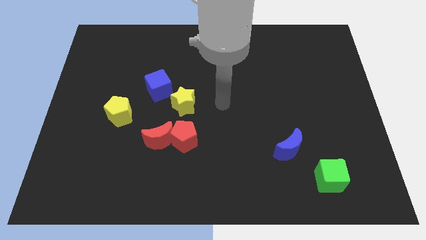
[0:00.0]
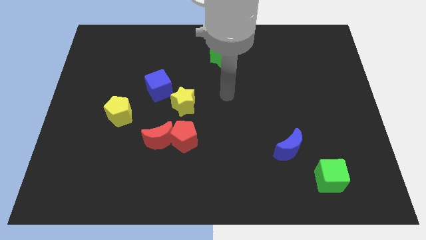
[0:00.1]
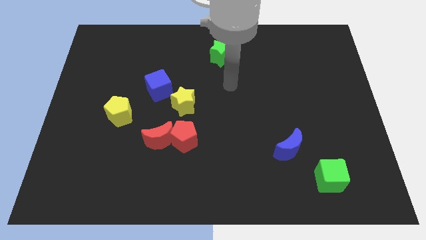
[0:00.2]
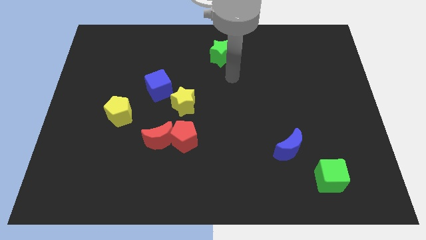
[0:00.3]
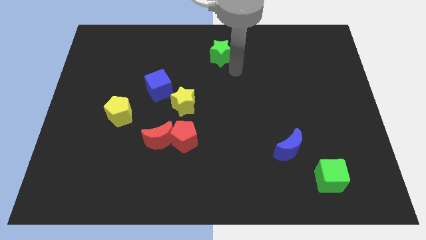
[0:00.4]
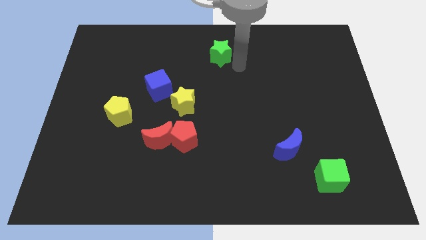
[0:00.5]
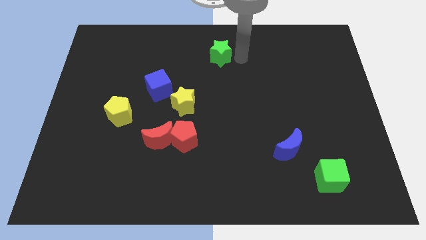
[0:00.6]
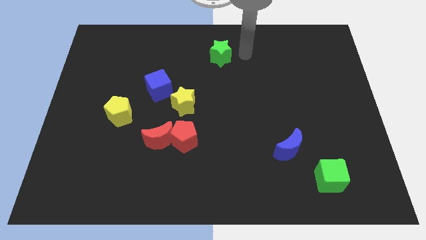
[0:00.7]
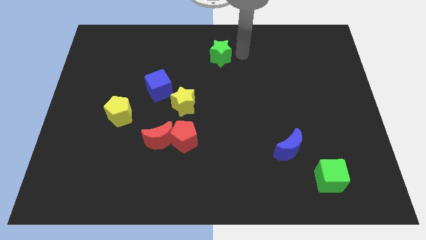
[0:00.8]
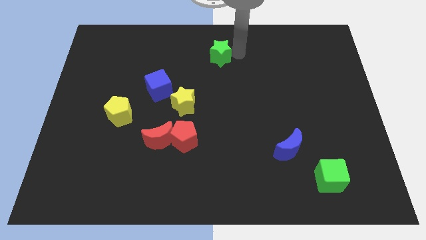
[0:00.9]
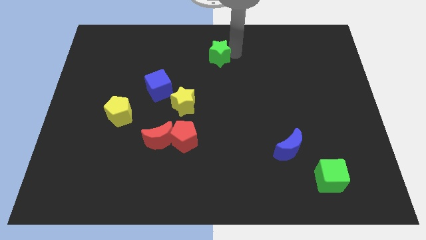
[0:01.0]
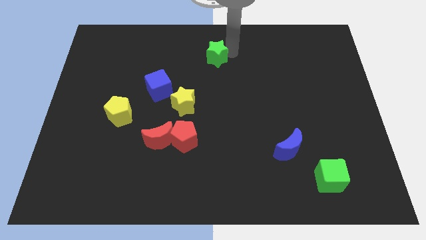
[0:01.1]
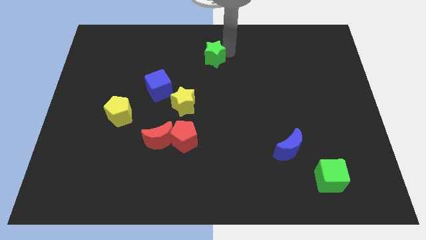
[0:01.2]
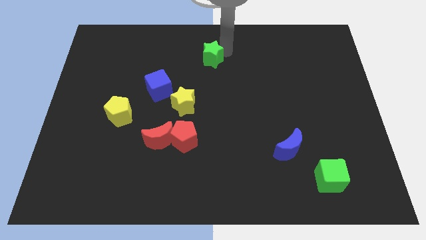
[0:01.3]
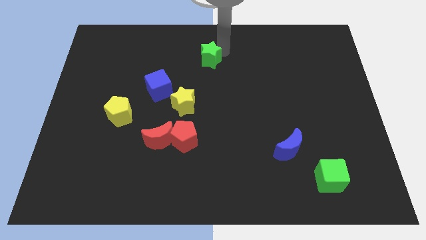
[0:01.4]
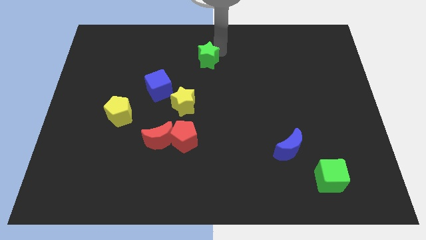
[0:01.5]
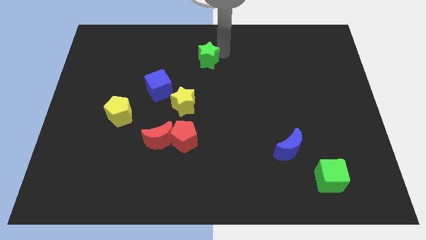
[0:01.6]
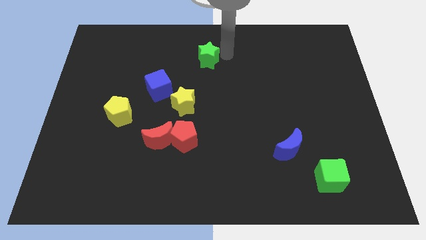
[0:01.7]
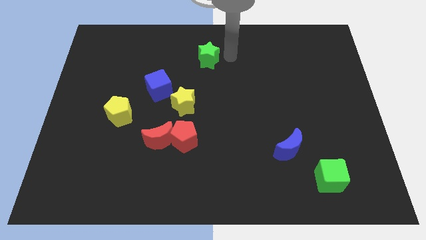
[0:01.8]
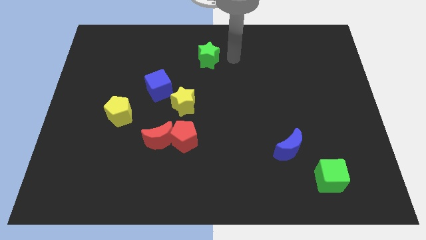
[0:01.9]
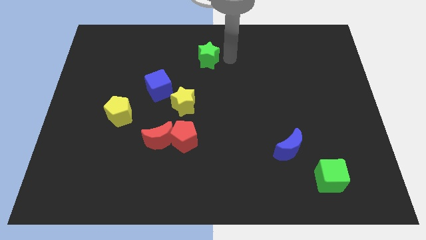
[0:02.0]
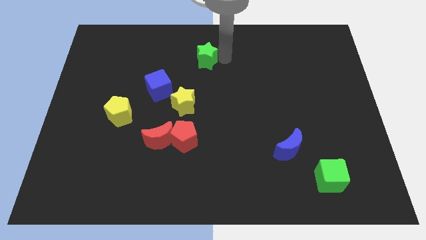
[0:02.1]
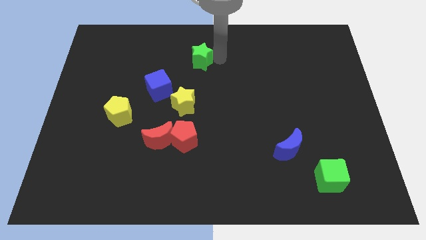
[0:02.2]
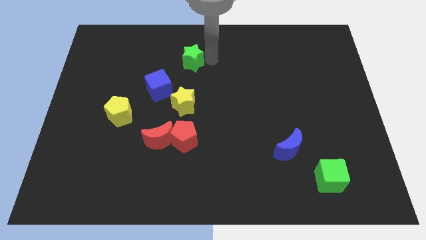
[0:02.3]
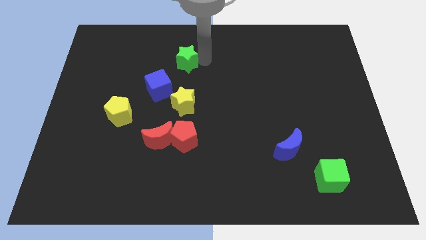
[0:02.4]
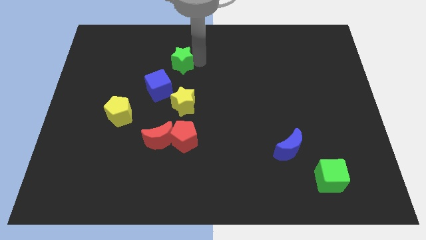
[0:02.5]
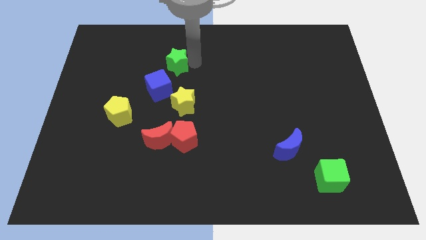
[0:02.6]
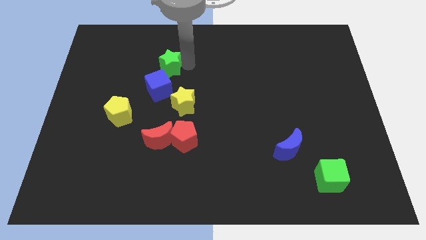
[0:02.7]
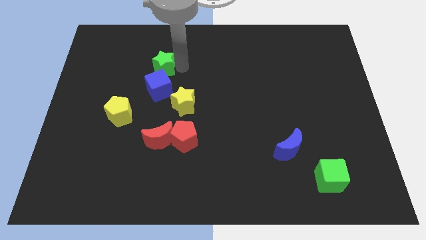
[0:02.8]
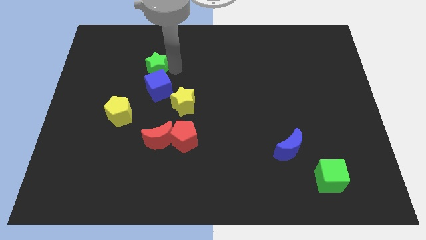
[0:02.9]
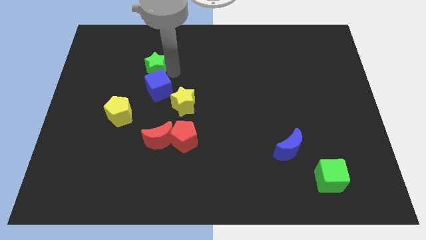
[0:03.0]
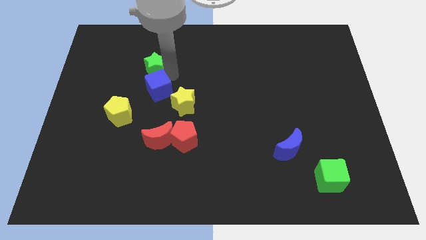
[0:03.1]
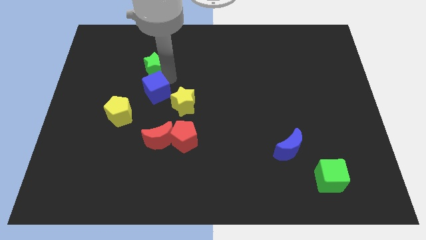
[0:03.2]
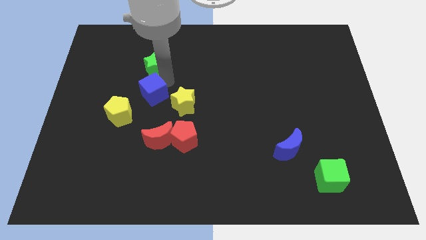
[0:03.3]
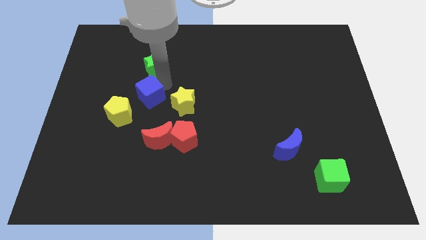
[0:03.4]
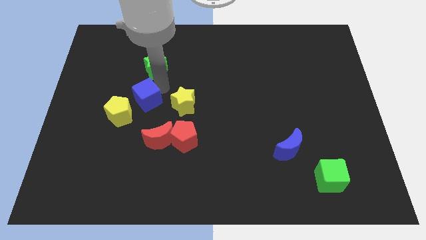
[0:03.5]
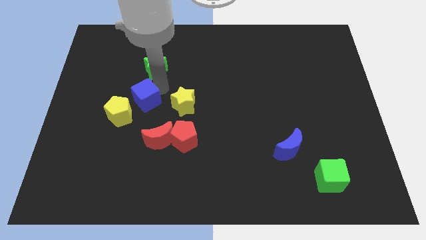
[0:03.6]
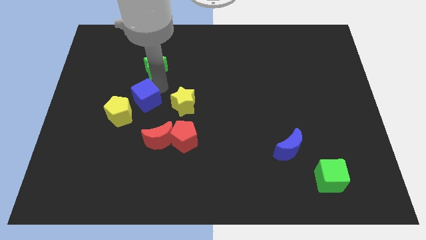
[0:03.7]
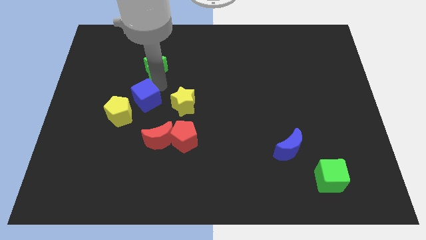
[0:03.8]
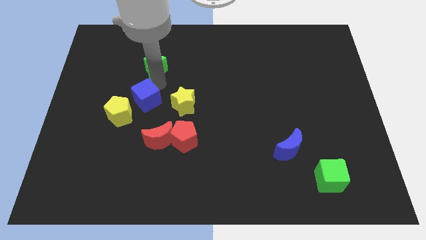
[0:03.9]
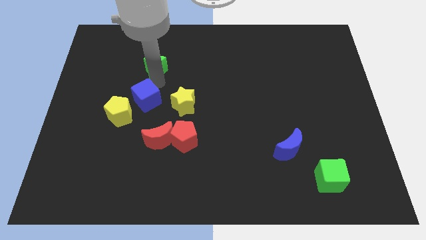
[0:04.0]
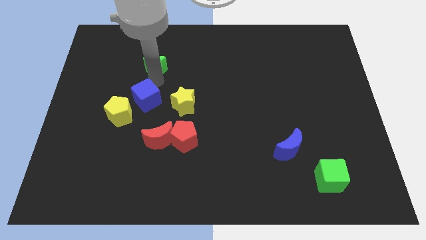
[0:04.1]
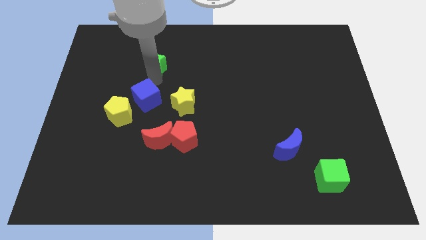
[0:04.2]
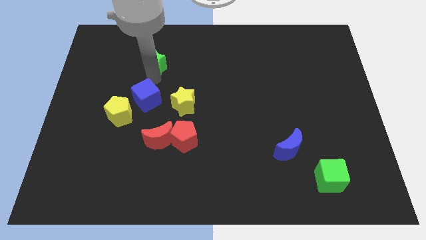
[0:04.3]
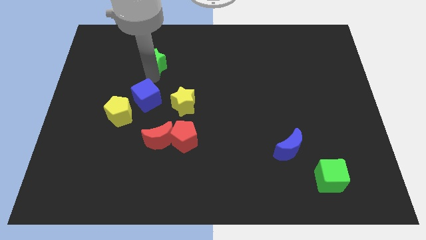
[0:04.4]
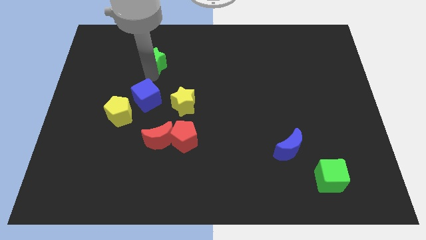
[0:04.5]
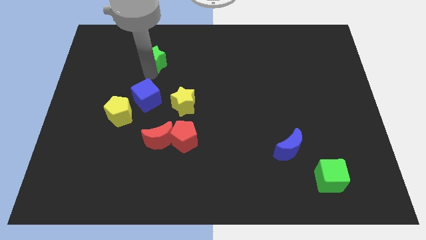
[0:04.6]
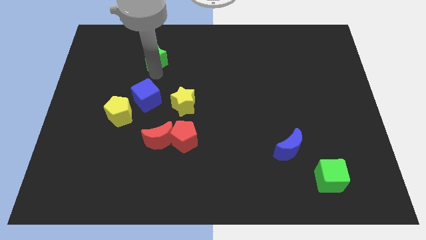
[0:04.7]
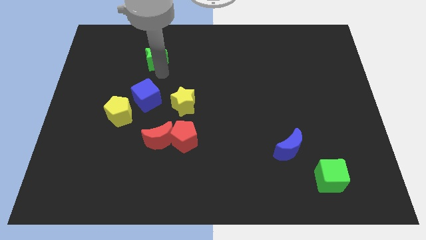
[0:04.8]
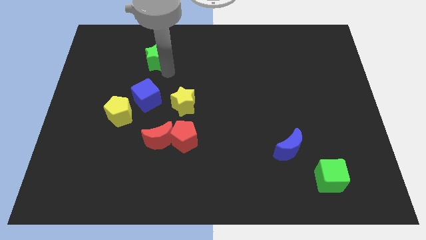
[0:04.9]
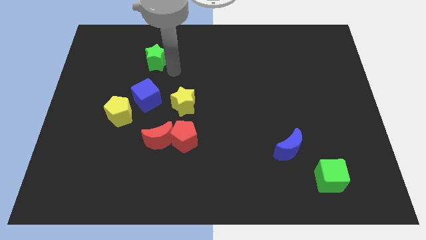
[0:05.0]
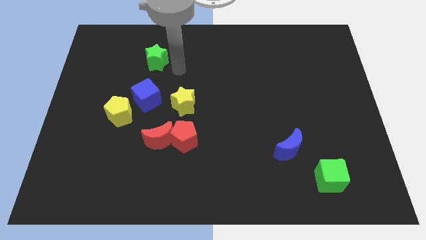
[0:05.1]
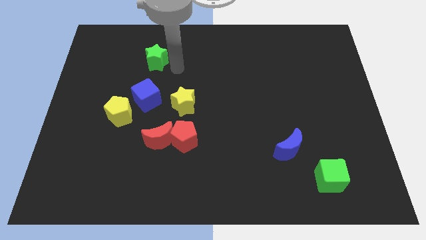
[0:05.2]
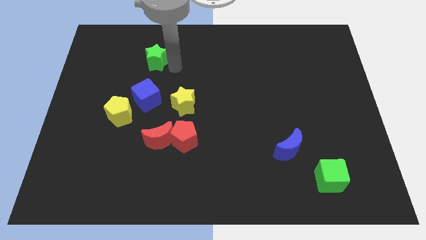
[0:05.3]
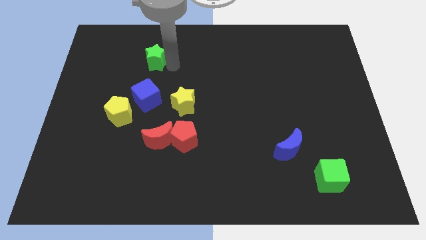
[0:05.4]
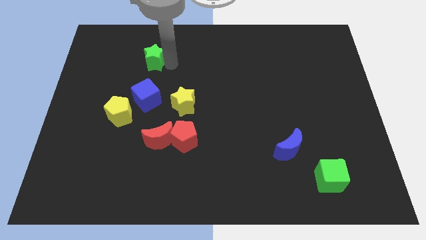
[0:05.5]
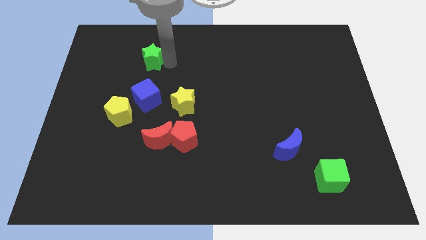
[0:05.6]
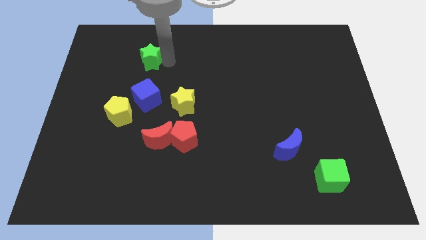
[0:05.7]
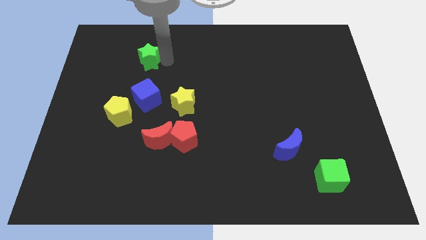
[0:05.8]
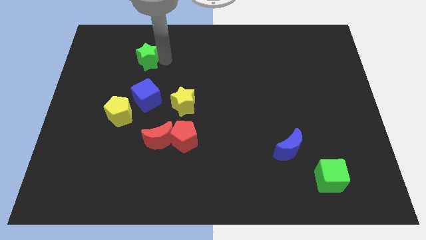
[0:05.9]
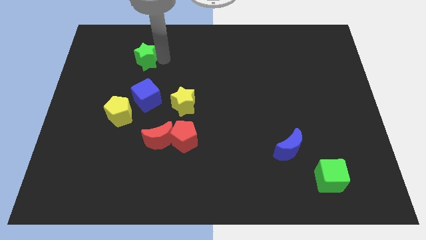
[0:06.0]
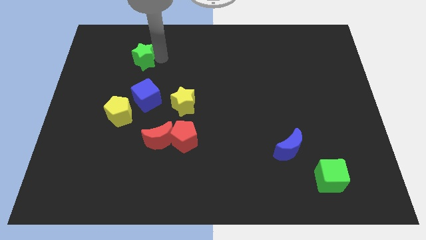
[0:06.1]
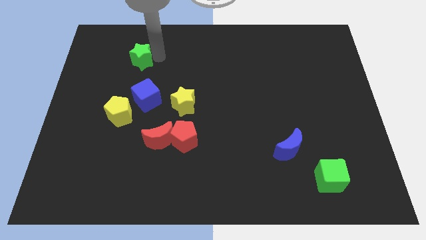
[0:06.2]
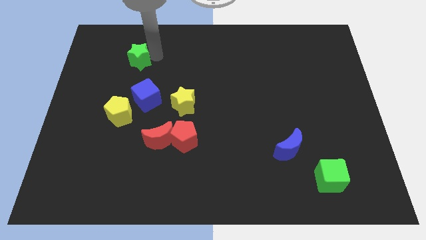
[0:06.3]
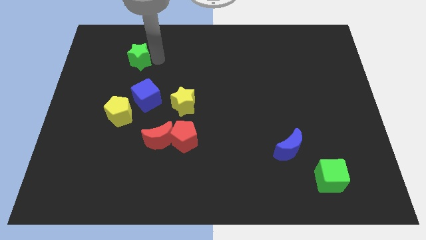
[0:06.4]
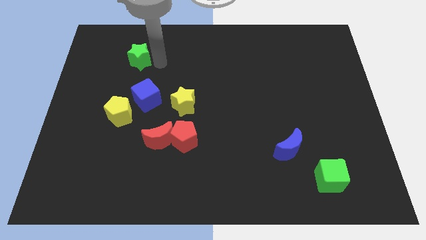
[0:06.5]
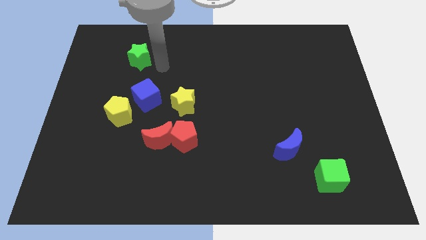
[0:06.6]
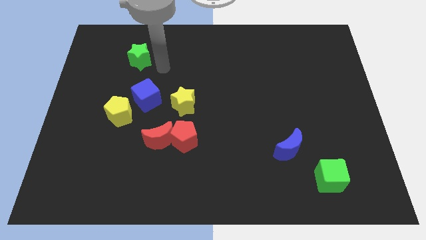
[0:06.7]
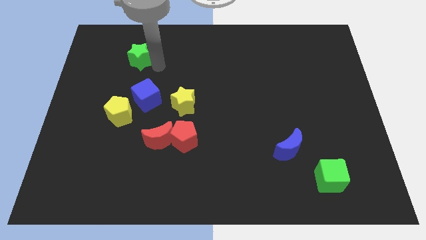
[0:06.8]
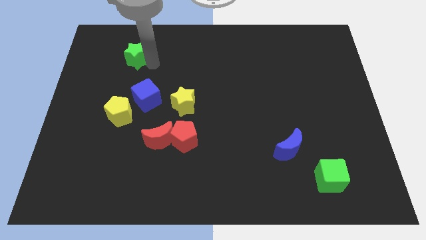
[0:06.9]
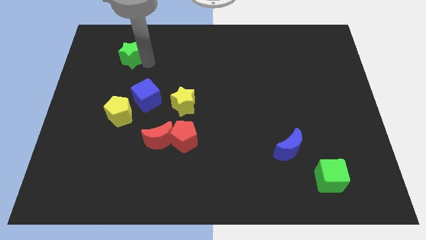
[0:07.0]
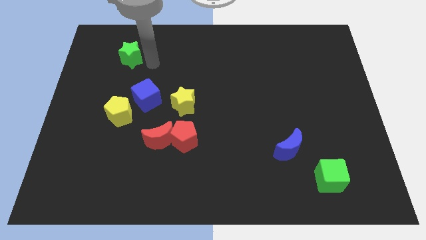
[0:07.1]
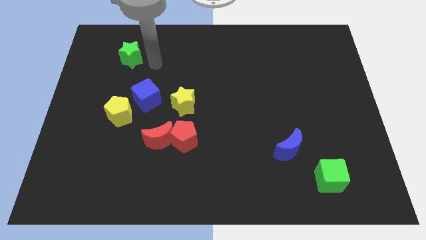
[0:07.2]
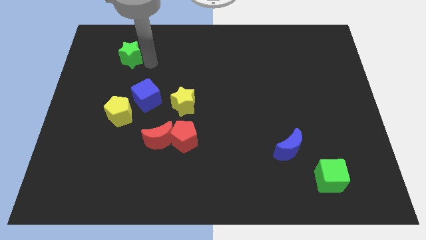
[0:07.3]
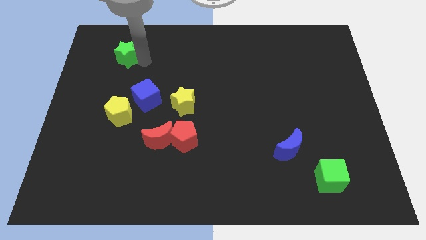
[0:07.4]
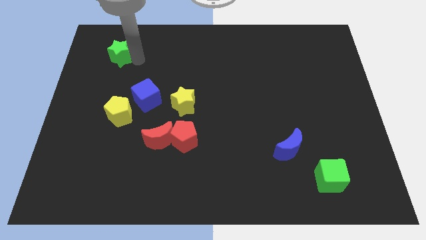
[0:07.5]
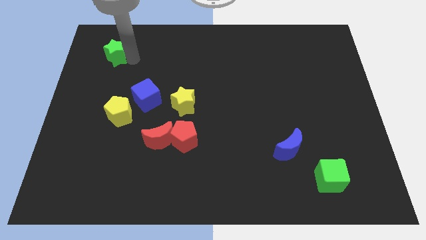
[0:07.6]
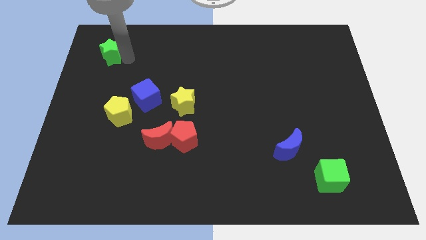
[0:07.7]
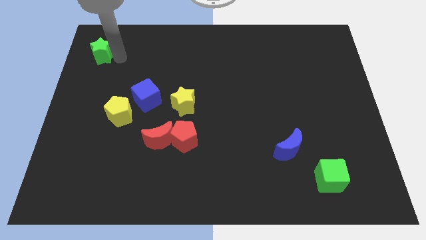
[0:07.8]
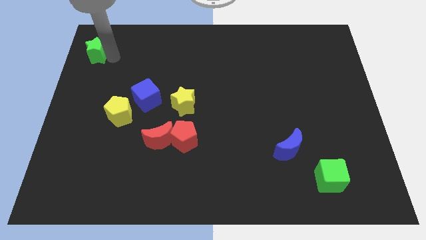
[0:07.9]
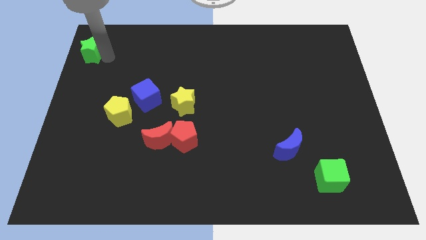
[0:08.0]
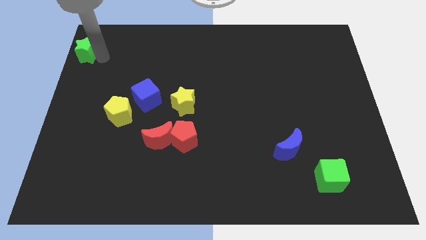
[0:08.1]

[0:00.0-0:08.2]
move the green star to the top left
